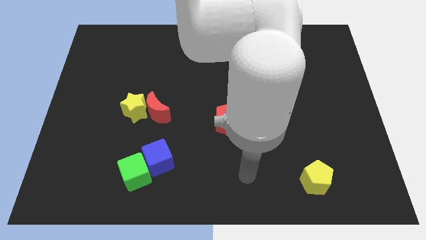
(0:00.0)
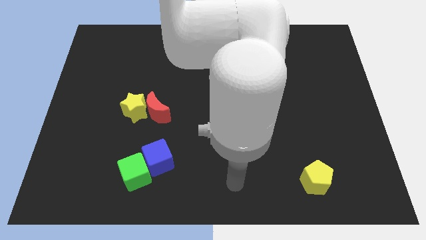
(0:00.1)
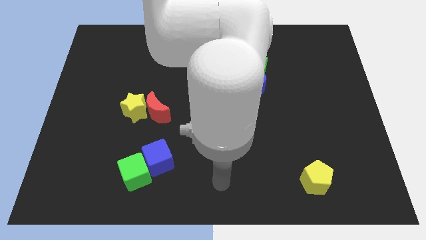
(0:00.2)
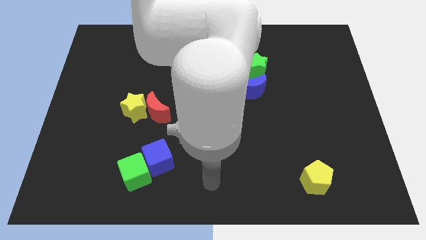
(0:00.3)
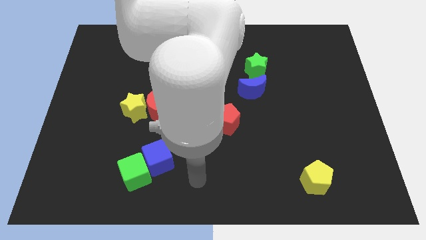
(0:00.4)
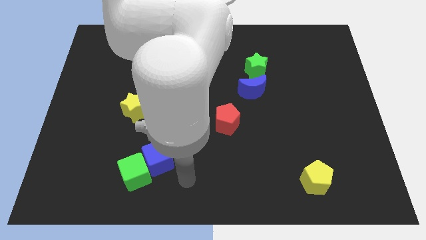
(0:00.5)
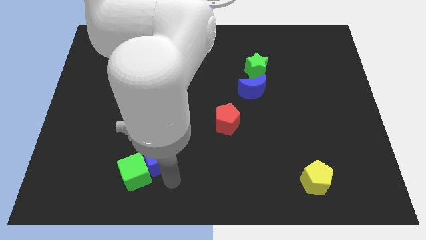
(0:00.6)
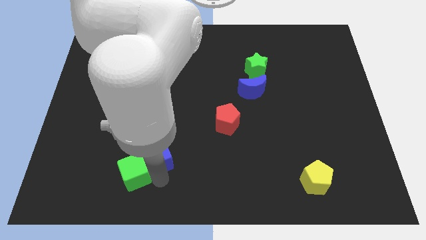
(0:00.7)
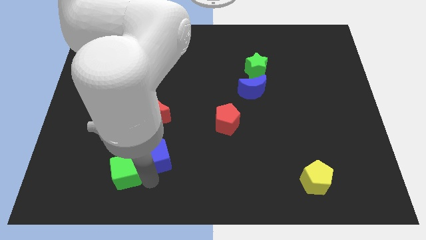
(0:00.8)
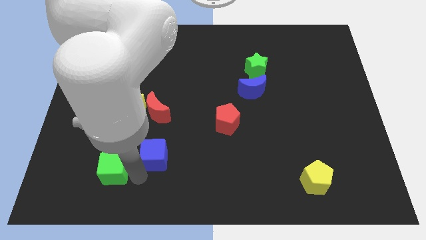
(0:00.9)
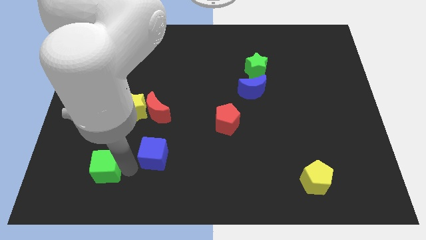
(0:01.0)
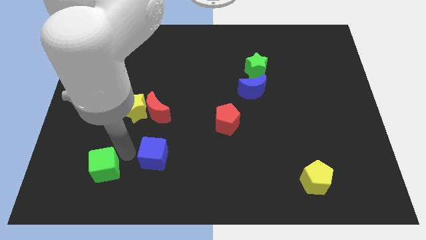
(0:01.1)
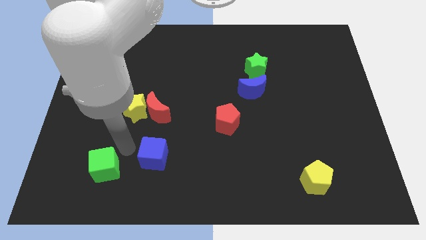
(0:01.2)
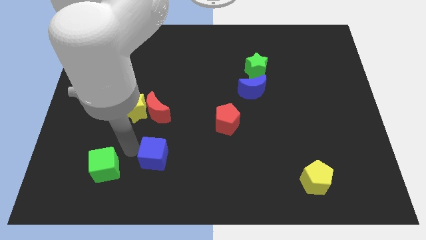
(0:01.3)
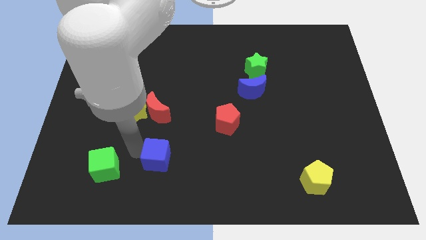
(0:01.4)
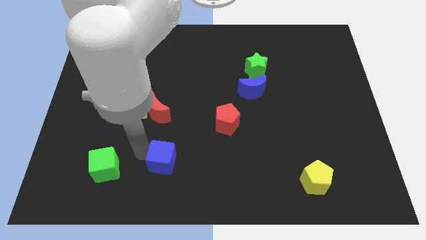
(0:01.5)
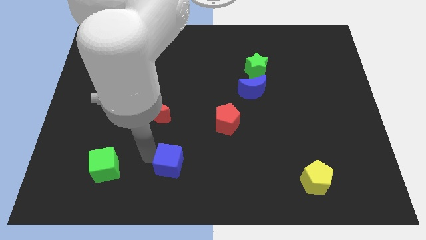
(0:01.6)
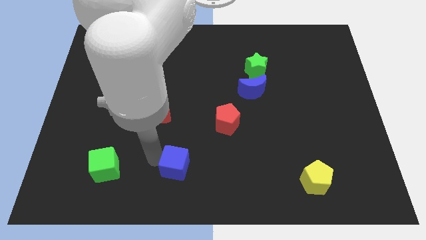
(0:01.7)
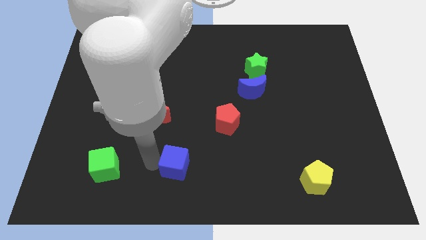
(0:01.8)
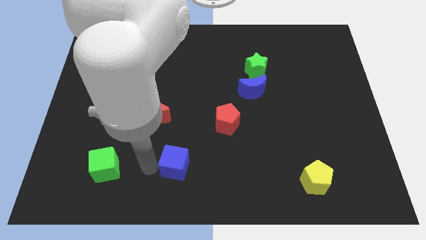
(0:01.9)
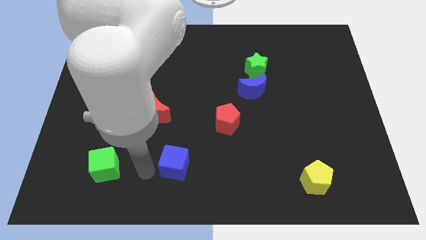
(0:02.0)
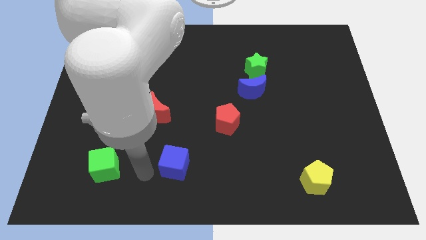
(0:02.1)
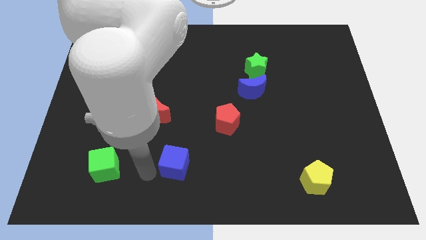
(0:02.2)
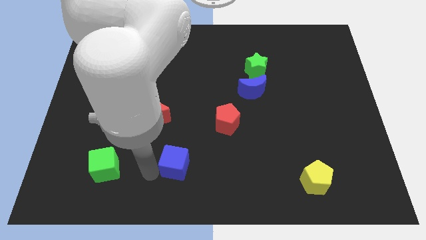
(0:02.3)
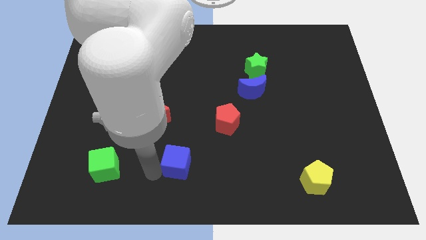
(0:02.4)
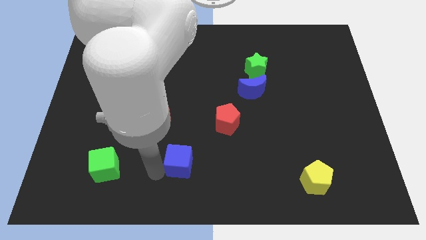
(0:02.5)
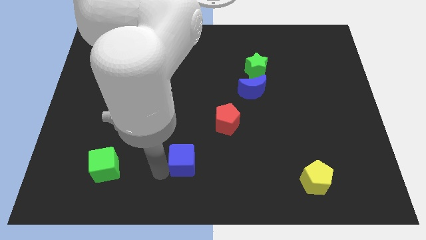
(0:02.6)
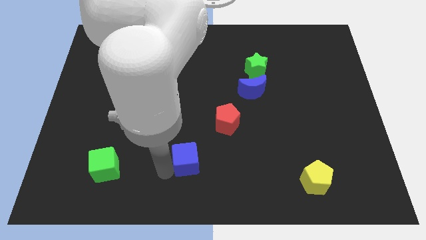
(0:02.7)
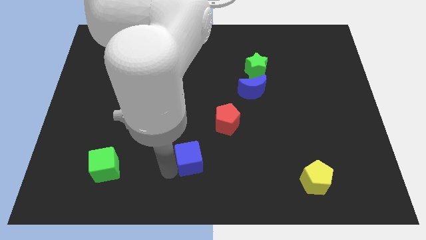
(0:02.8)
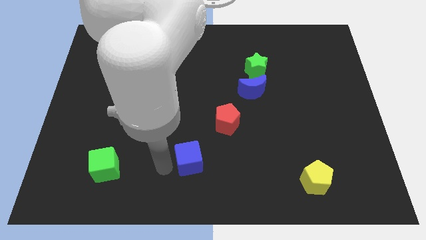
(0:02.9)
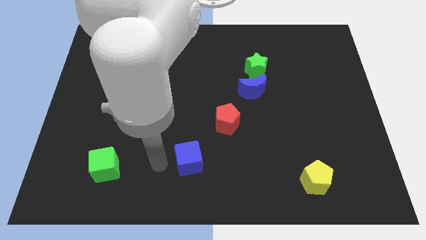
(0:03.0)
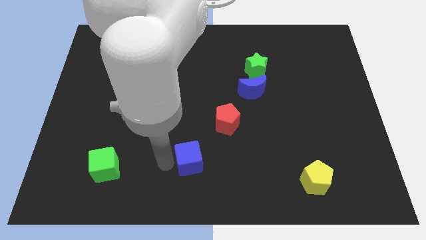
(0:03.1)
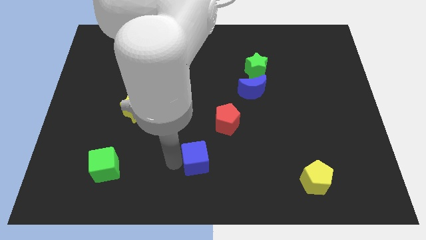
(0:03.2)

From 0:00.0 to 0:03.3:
push the blue cube a bit to the right

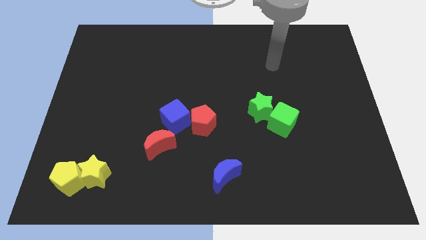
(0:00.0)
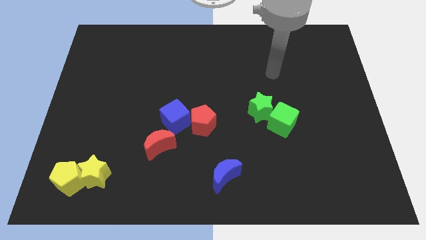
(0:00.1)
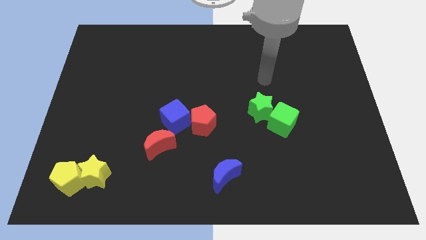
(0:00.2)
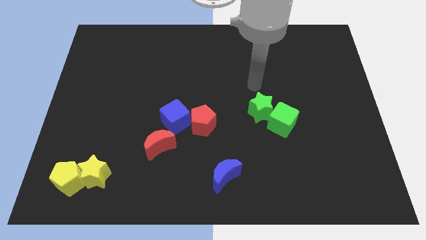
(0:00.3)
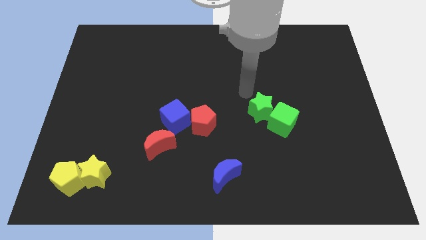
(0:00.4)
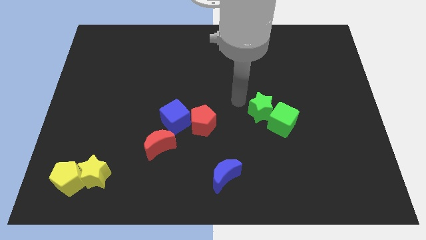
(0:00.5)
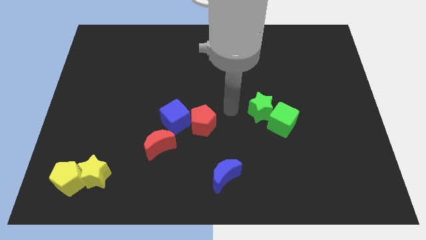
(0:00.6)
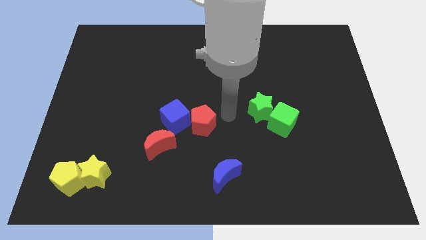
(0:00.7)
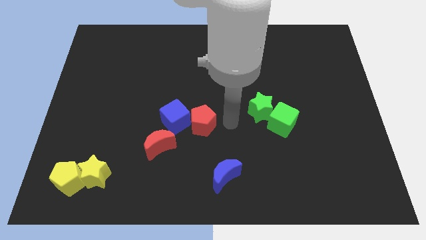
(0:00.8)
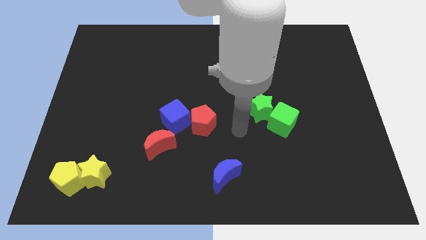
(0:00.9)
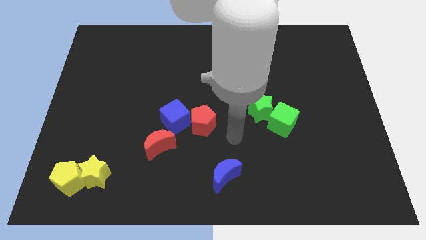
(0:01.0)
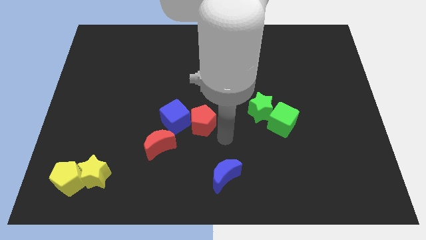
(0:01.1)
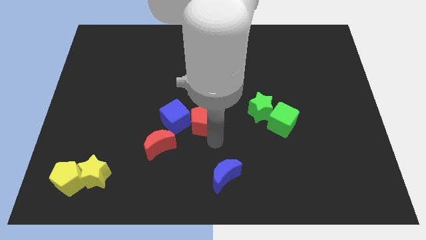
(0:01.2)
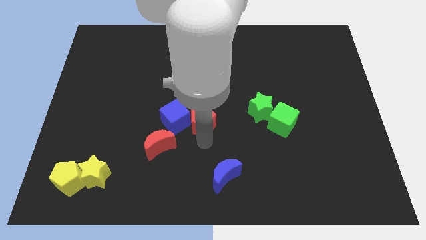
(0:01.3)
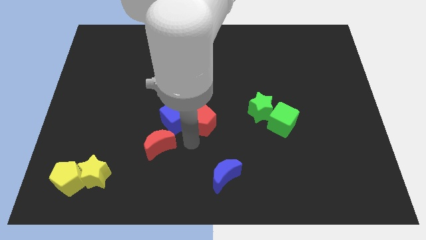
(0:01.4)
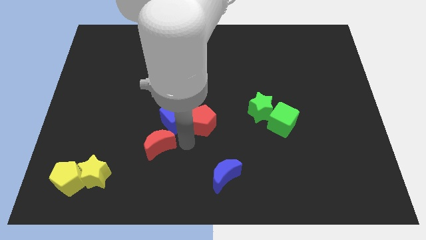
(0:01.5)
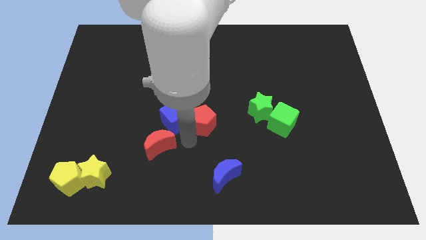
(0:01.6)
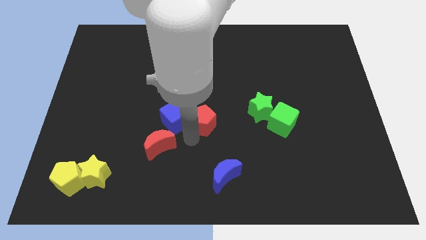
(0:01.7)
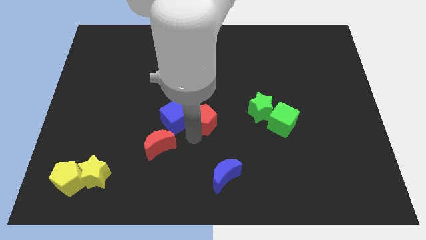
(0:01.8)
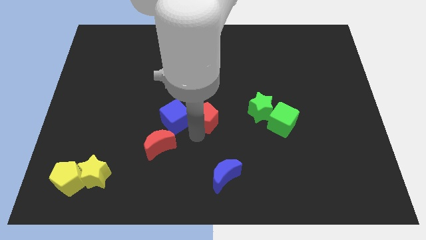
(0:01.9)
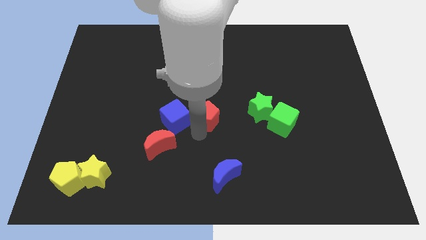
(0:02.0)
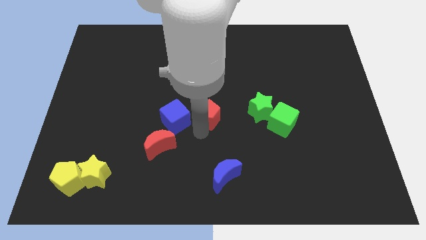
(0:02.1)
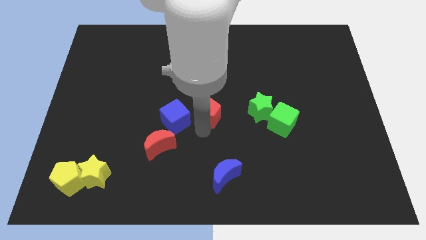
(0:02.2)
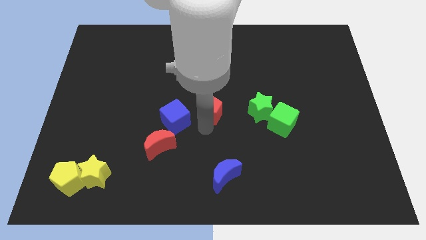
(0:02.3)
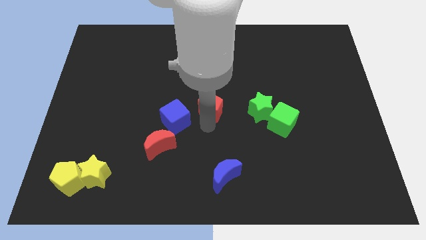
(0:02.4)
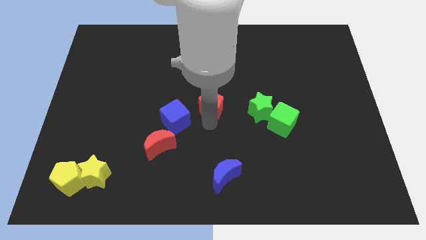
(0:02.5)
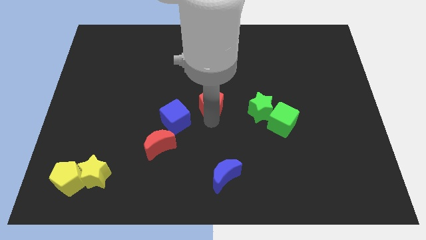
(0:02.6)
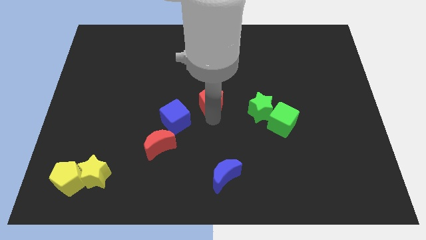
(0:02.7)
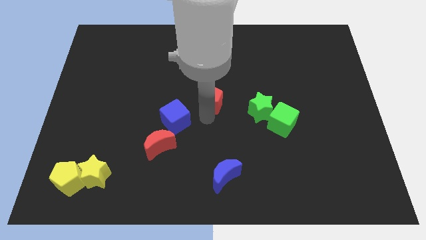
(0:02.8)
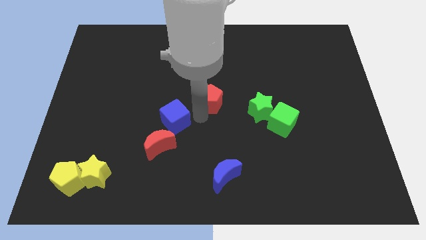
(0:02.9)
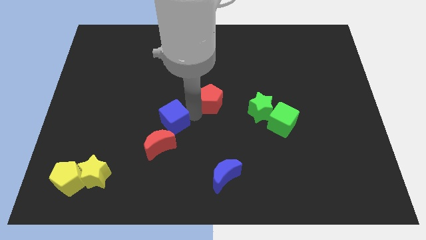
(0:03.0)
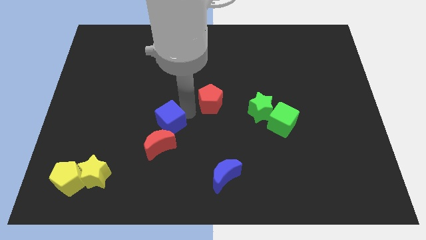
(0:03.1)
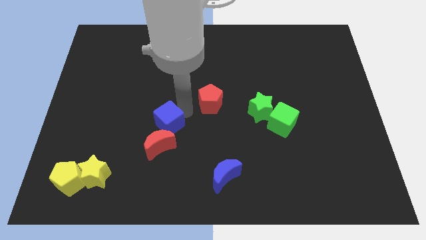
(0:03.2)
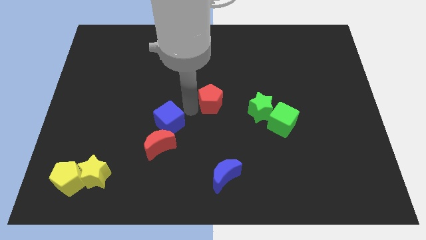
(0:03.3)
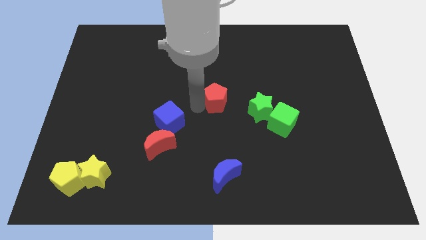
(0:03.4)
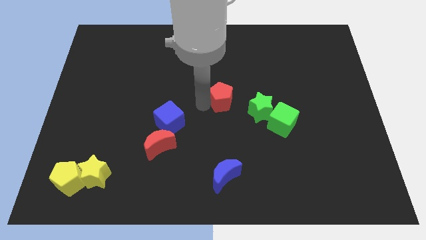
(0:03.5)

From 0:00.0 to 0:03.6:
push the red pentagon a little bit diagonally up and to the right

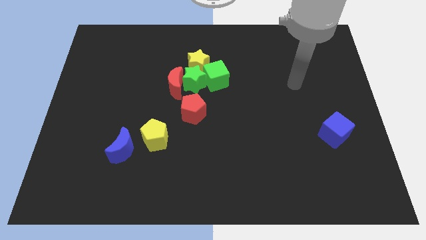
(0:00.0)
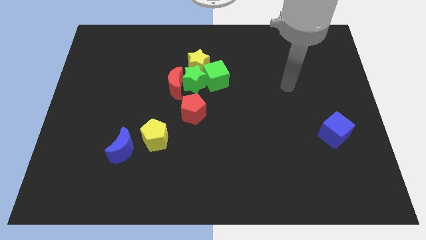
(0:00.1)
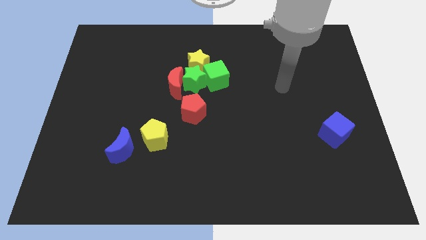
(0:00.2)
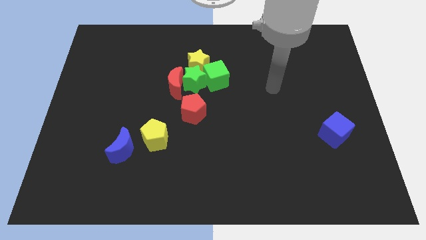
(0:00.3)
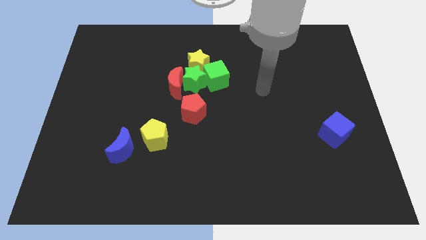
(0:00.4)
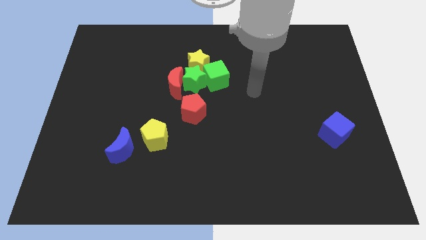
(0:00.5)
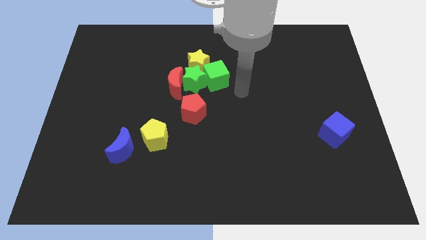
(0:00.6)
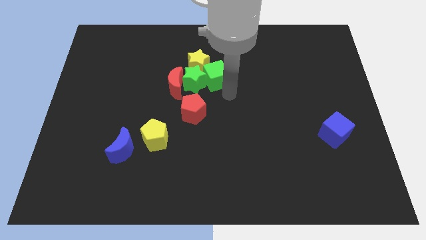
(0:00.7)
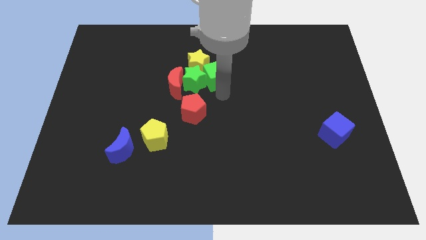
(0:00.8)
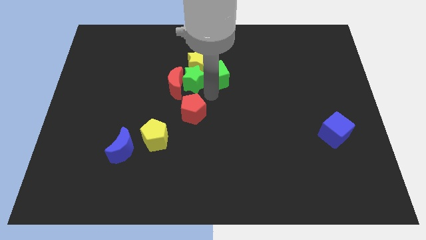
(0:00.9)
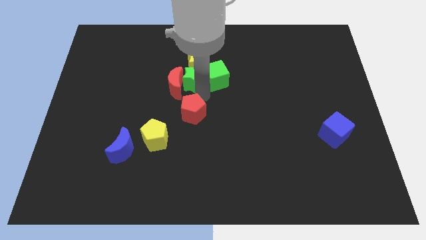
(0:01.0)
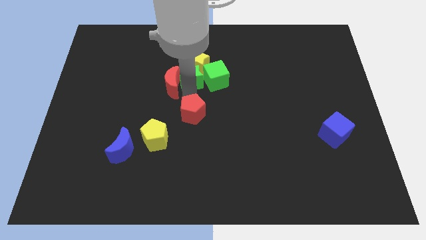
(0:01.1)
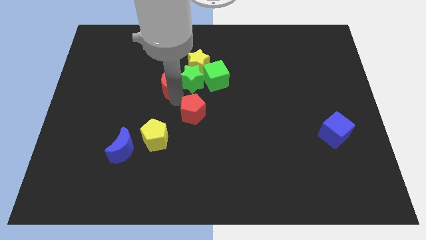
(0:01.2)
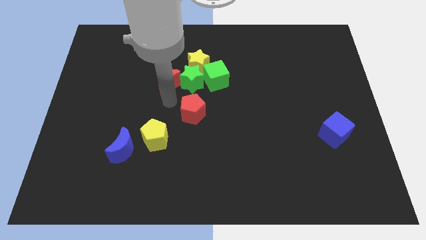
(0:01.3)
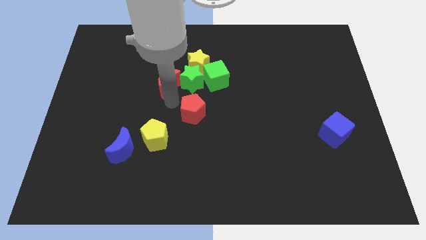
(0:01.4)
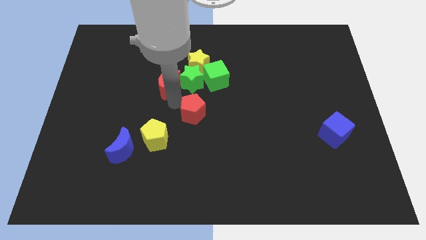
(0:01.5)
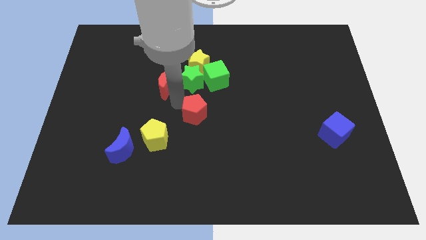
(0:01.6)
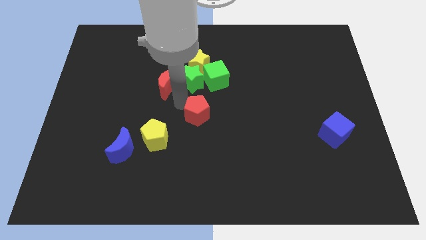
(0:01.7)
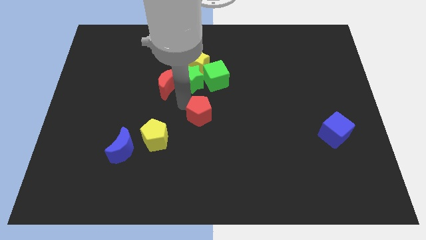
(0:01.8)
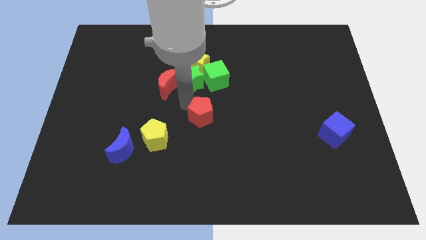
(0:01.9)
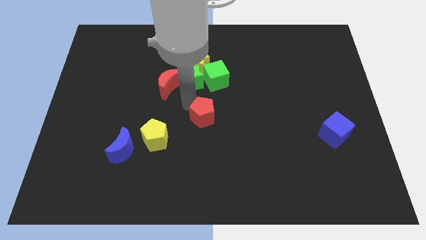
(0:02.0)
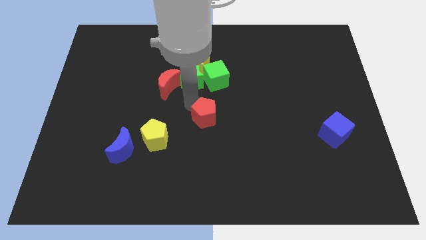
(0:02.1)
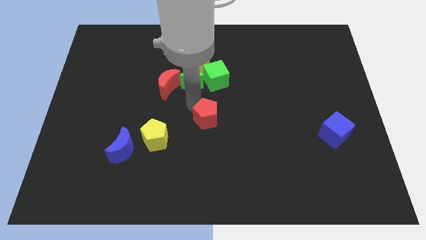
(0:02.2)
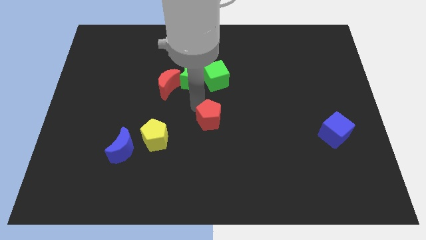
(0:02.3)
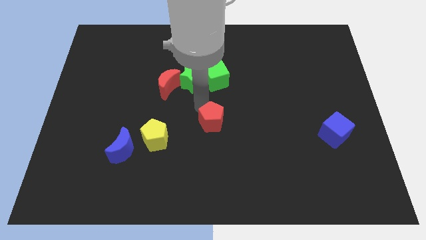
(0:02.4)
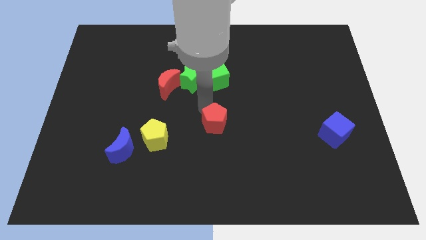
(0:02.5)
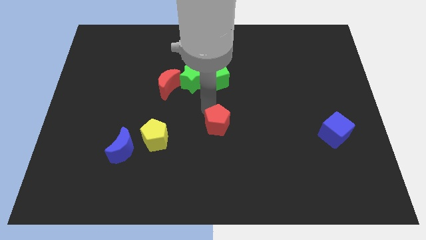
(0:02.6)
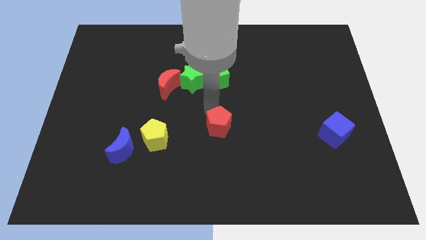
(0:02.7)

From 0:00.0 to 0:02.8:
slide the red pentagon down and right diagonally a little
